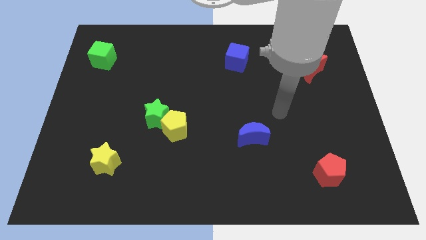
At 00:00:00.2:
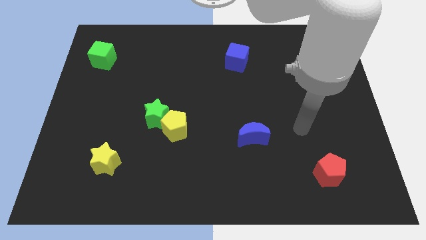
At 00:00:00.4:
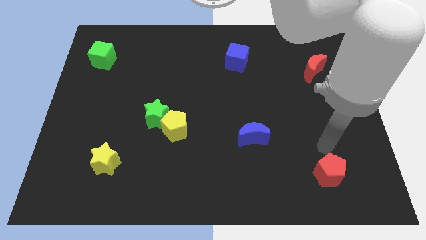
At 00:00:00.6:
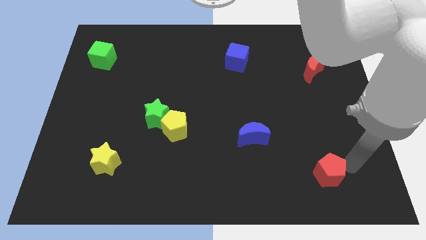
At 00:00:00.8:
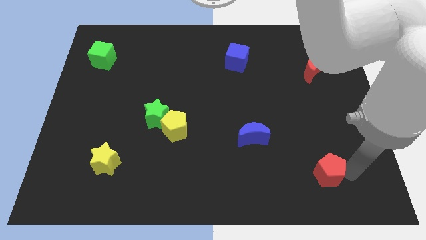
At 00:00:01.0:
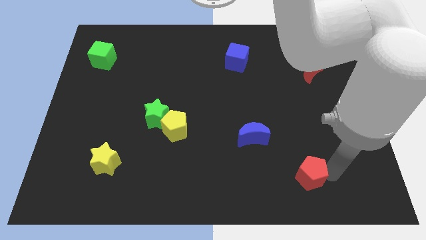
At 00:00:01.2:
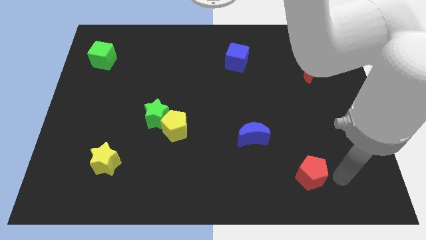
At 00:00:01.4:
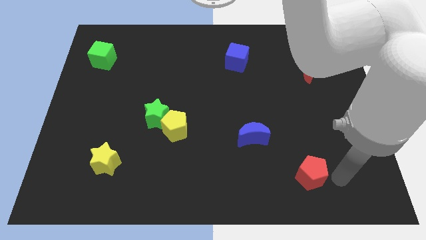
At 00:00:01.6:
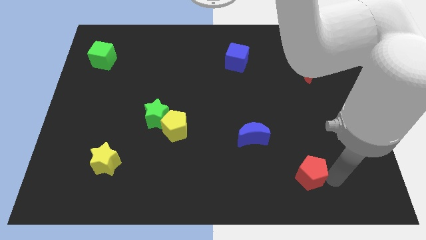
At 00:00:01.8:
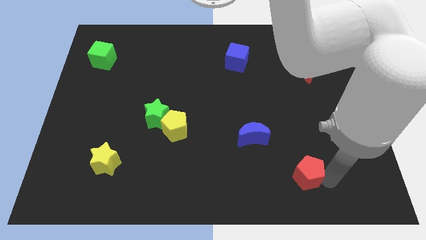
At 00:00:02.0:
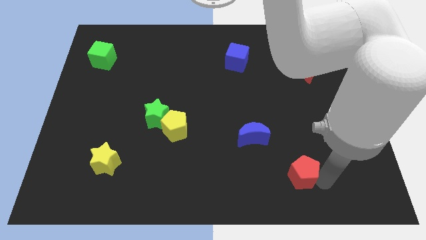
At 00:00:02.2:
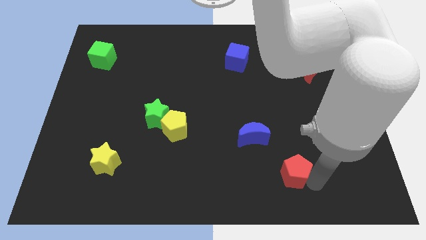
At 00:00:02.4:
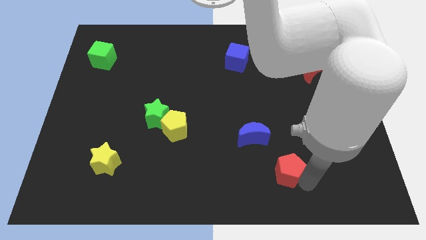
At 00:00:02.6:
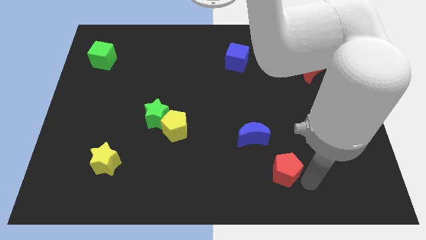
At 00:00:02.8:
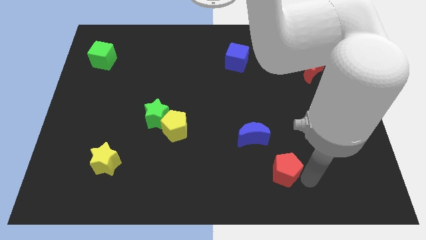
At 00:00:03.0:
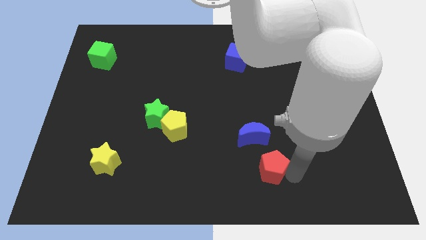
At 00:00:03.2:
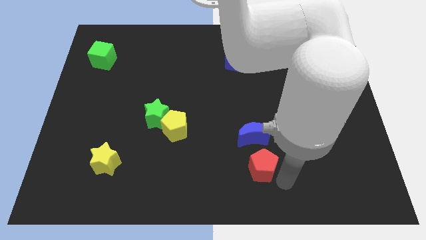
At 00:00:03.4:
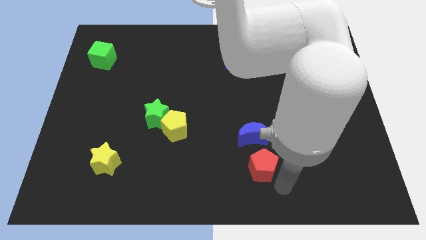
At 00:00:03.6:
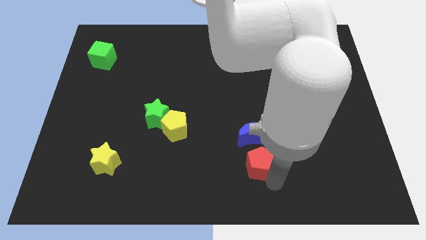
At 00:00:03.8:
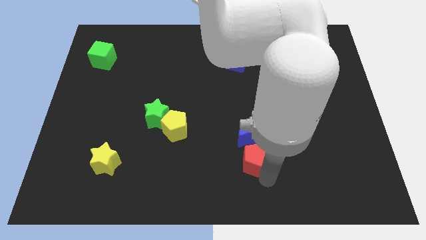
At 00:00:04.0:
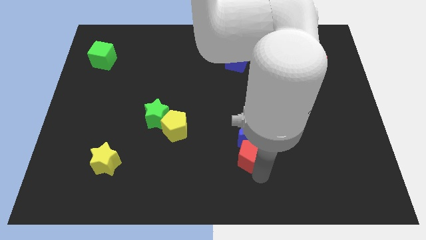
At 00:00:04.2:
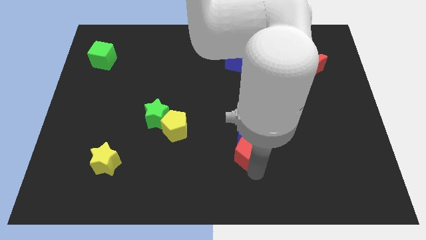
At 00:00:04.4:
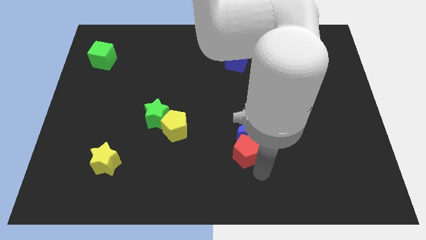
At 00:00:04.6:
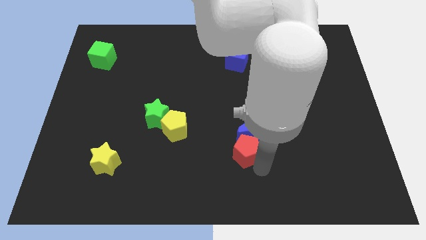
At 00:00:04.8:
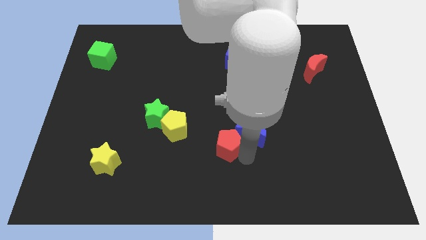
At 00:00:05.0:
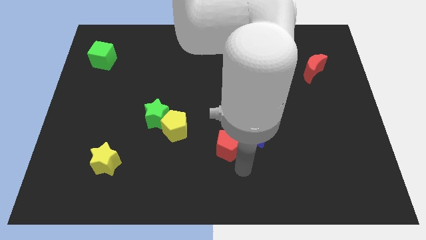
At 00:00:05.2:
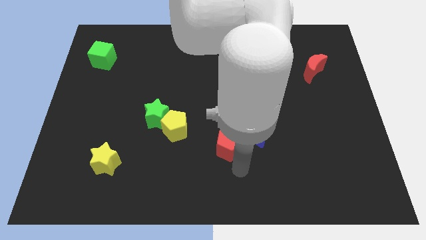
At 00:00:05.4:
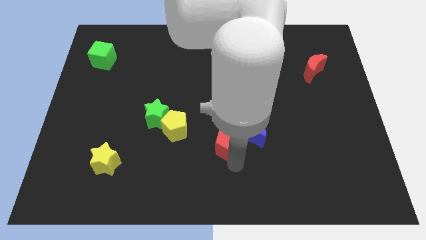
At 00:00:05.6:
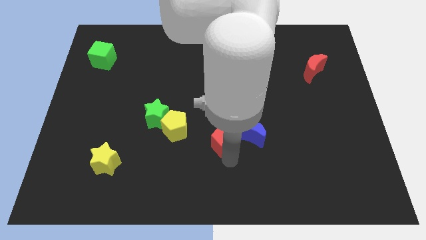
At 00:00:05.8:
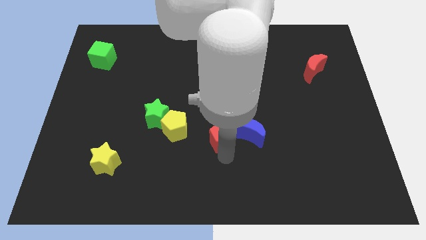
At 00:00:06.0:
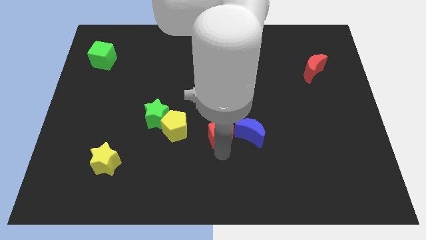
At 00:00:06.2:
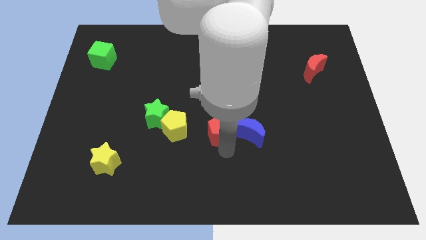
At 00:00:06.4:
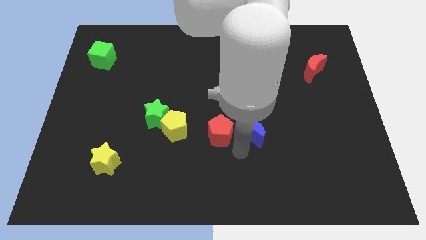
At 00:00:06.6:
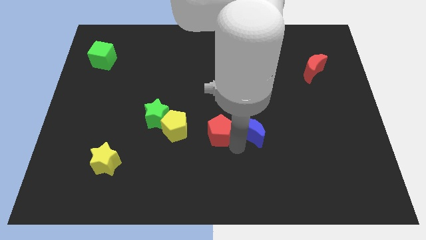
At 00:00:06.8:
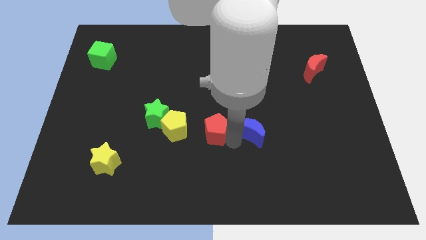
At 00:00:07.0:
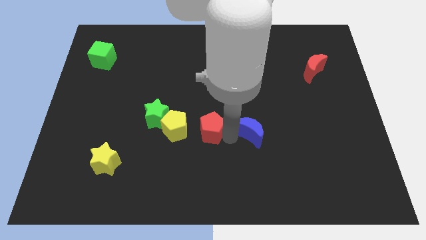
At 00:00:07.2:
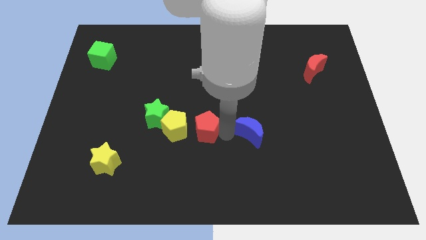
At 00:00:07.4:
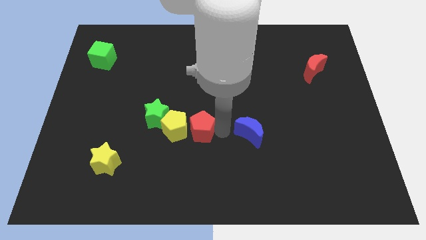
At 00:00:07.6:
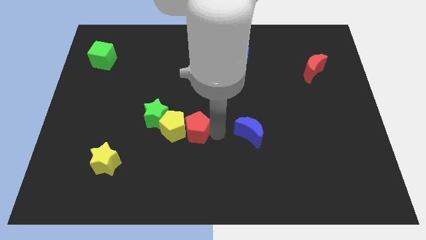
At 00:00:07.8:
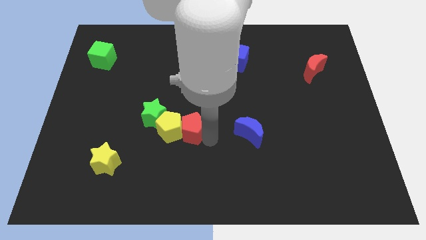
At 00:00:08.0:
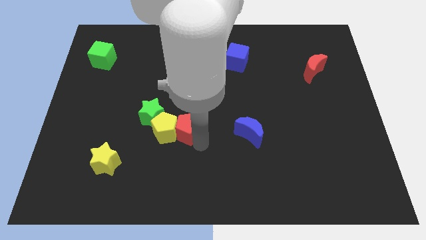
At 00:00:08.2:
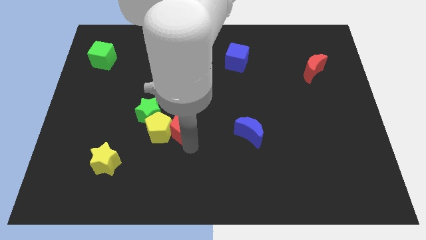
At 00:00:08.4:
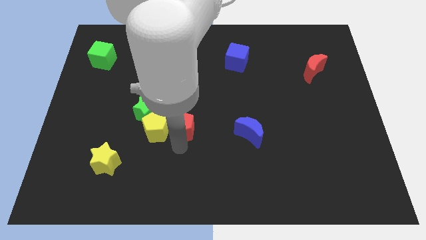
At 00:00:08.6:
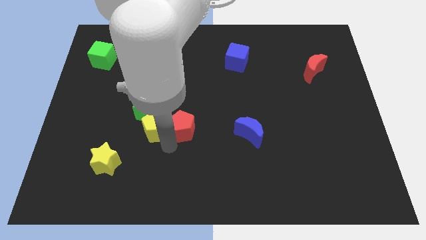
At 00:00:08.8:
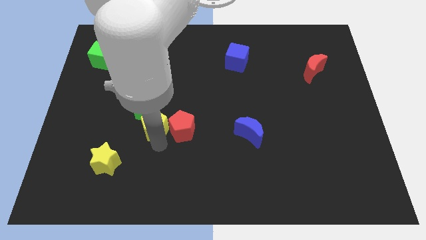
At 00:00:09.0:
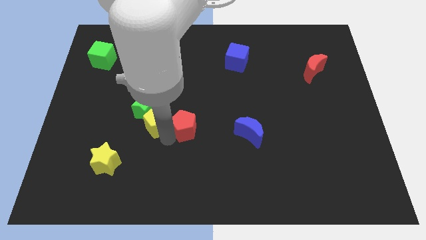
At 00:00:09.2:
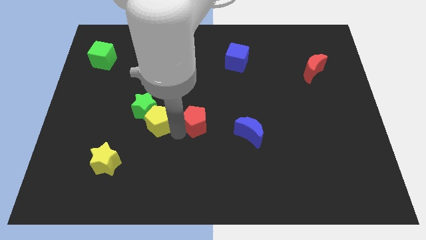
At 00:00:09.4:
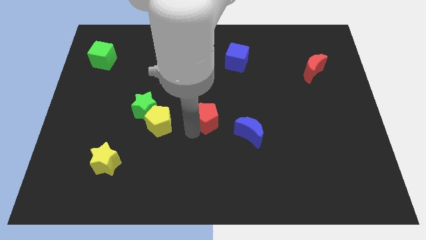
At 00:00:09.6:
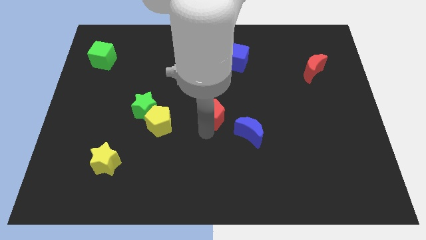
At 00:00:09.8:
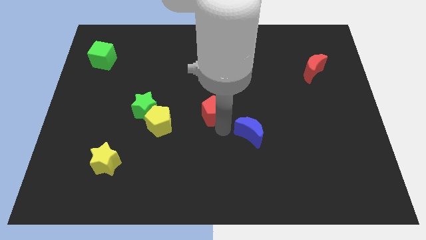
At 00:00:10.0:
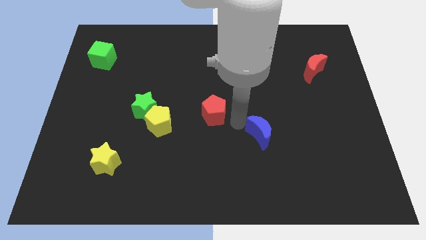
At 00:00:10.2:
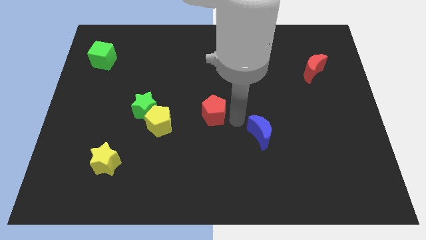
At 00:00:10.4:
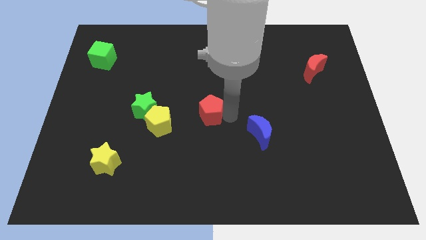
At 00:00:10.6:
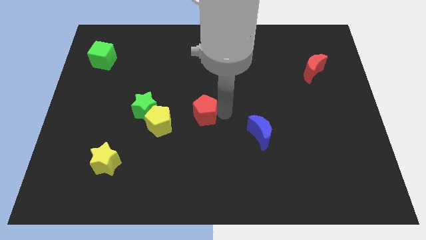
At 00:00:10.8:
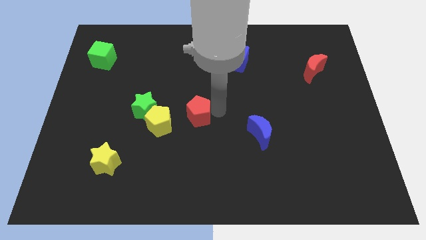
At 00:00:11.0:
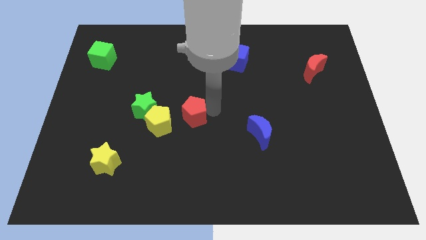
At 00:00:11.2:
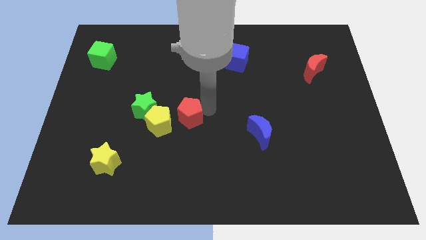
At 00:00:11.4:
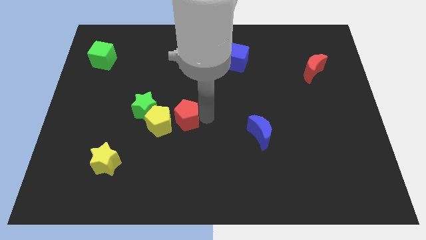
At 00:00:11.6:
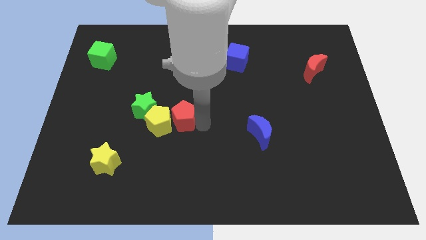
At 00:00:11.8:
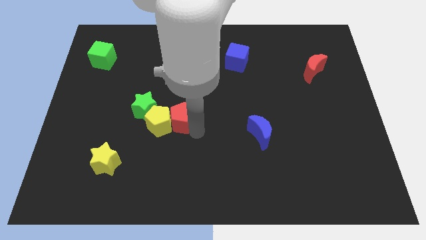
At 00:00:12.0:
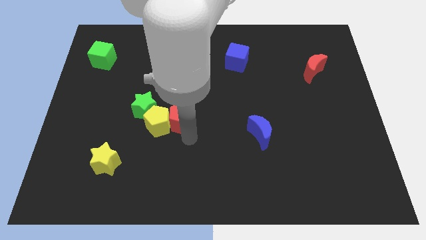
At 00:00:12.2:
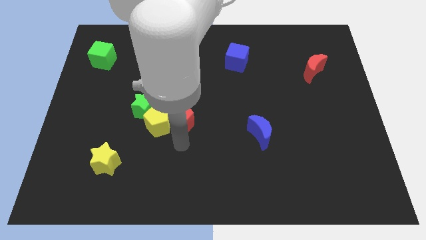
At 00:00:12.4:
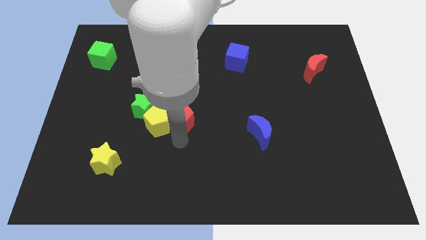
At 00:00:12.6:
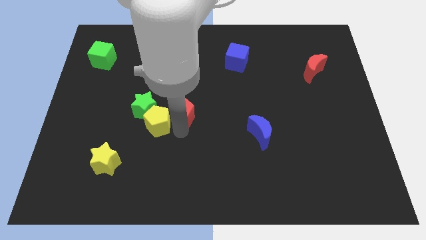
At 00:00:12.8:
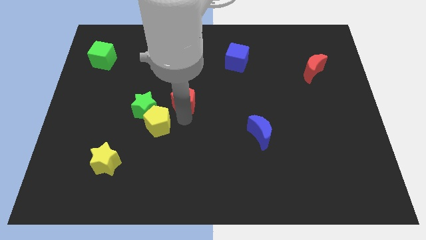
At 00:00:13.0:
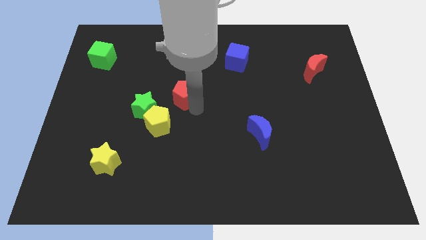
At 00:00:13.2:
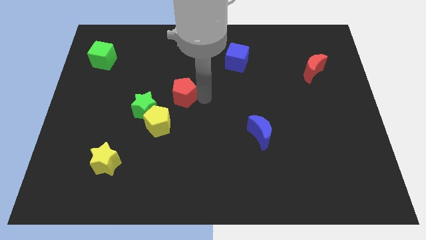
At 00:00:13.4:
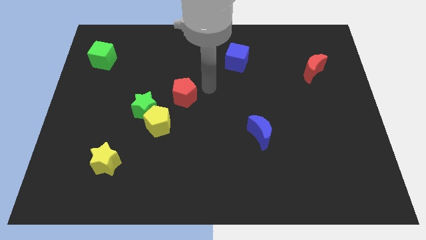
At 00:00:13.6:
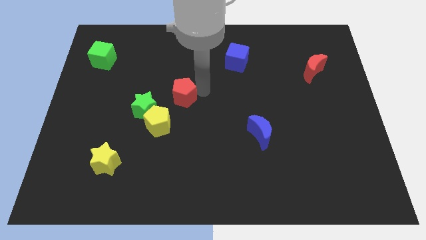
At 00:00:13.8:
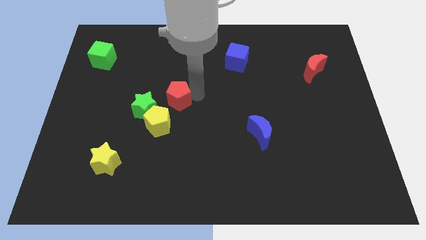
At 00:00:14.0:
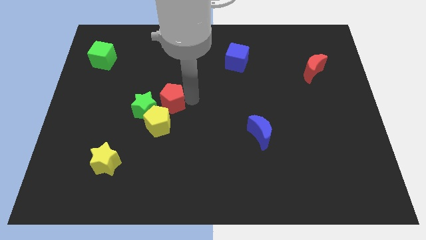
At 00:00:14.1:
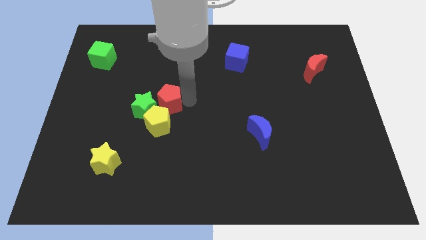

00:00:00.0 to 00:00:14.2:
move the red pentagon close to the green star

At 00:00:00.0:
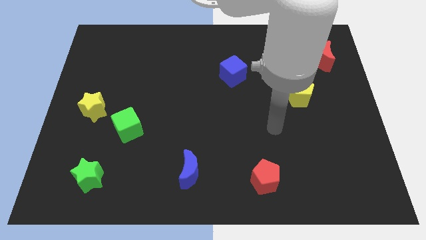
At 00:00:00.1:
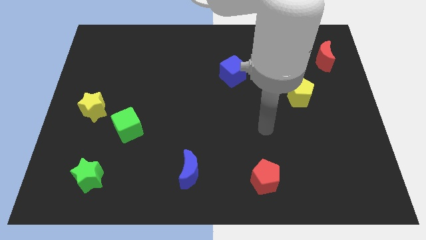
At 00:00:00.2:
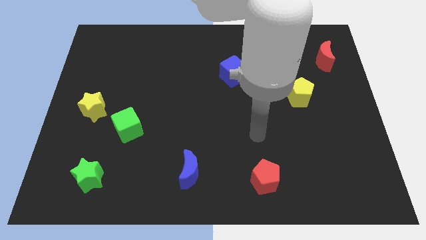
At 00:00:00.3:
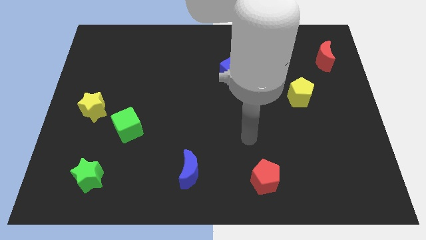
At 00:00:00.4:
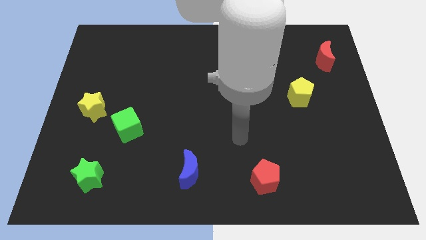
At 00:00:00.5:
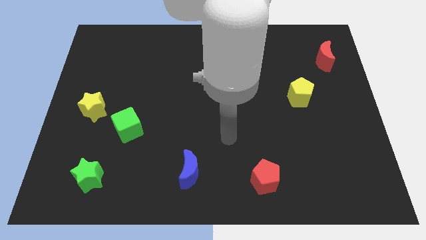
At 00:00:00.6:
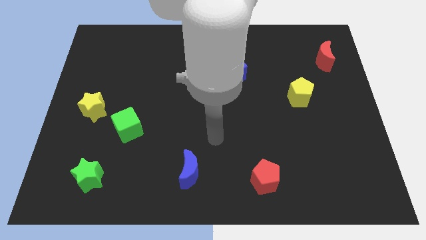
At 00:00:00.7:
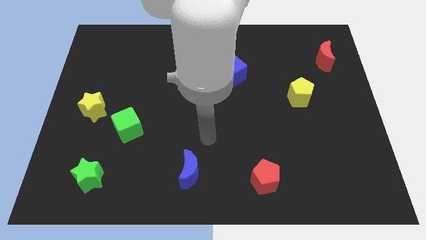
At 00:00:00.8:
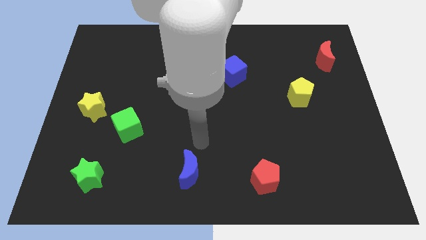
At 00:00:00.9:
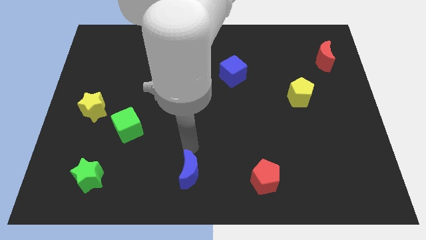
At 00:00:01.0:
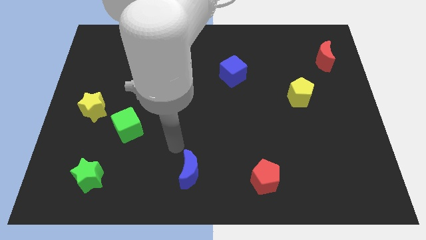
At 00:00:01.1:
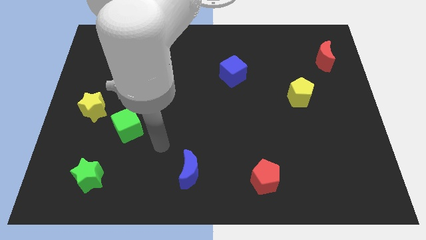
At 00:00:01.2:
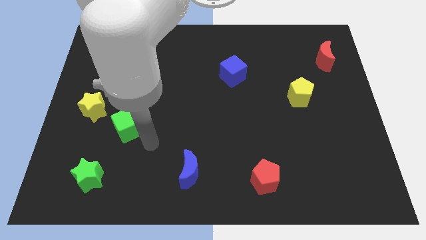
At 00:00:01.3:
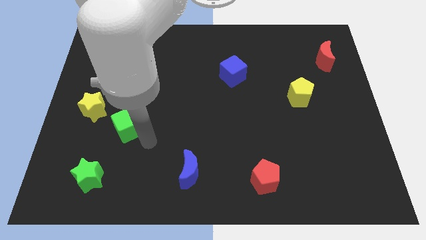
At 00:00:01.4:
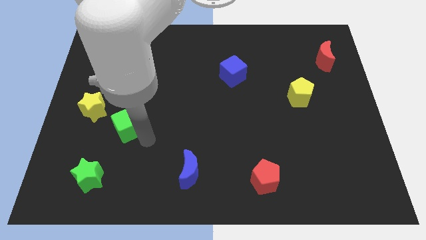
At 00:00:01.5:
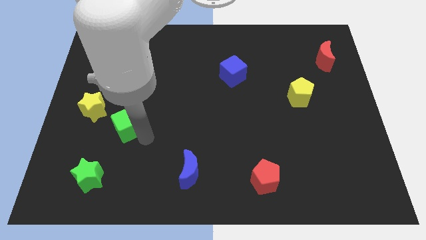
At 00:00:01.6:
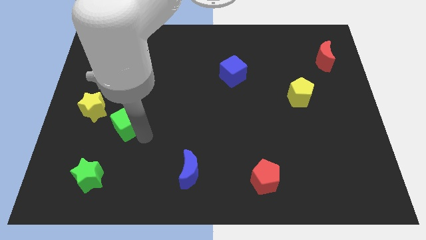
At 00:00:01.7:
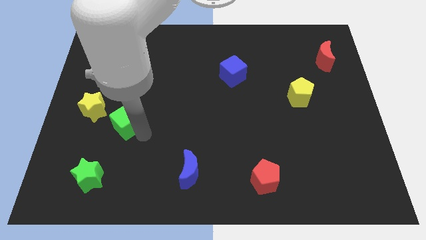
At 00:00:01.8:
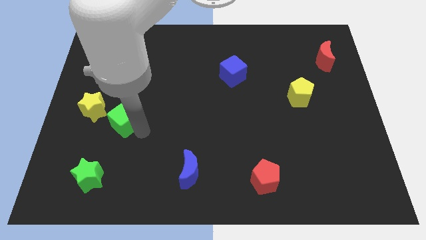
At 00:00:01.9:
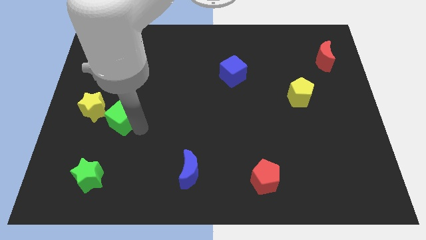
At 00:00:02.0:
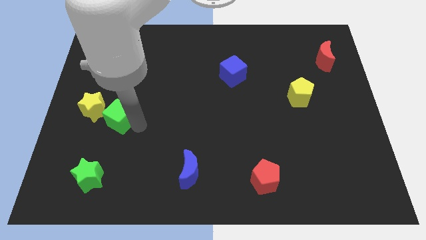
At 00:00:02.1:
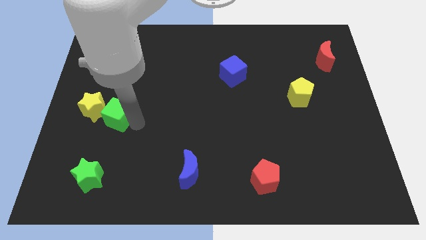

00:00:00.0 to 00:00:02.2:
slide the green cube close to the yellow star
